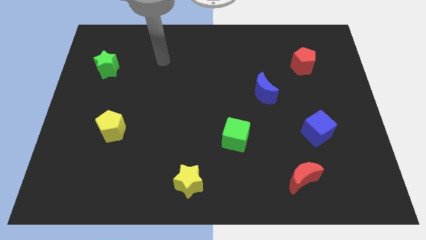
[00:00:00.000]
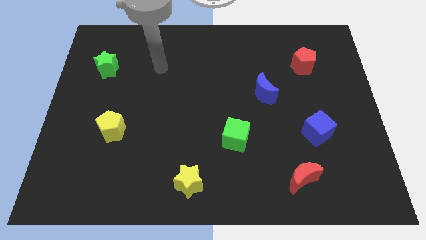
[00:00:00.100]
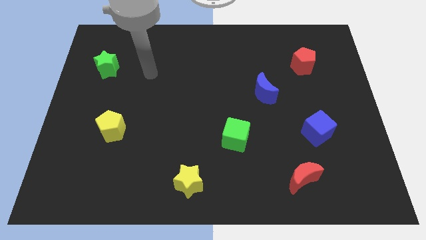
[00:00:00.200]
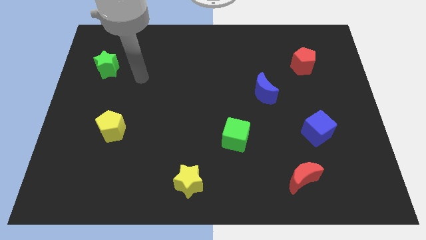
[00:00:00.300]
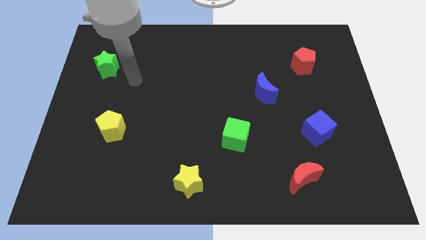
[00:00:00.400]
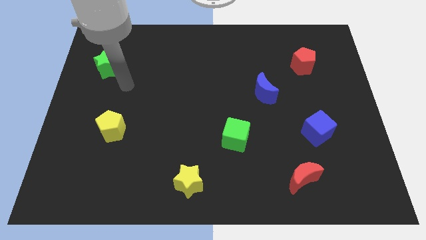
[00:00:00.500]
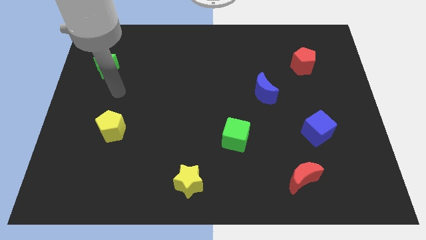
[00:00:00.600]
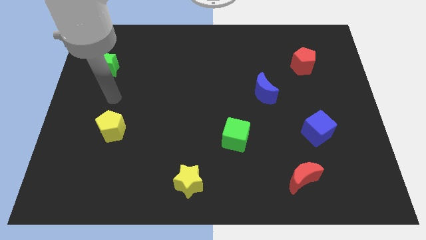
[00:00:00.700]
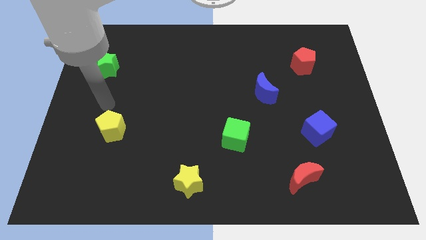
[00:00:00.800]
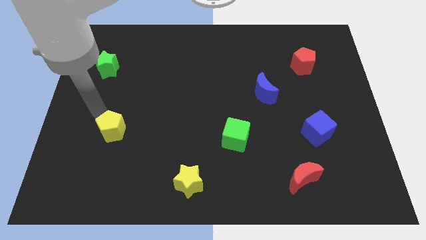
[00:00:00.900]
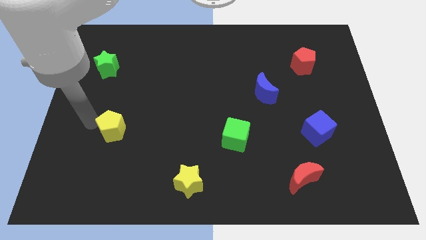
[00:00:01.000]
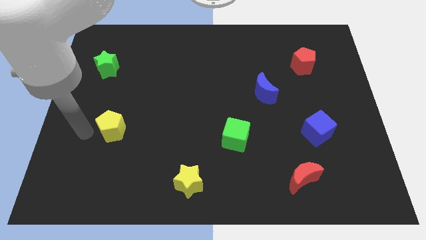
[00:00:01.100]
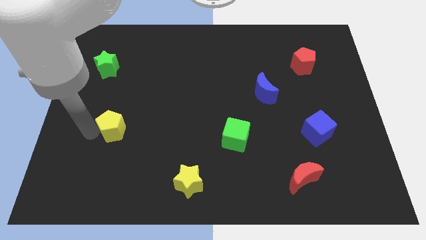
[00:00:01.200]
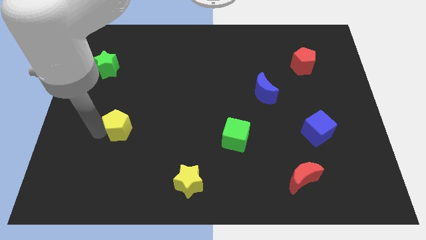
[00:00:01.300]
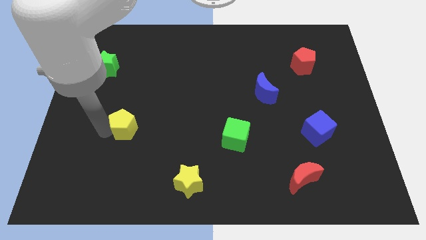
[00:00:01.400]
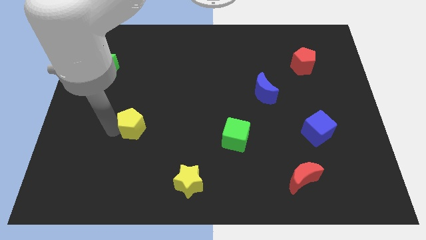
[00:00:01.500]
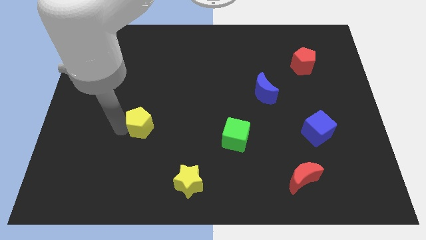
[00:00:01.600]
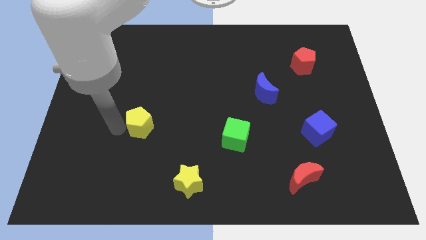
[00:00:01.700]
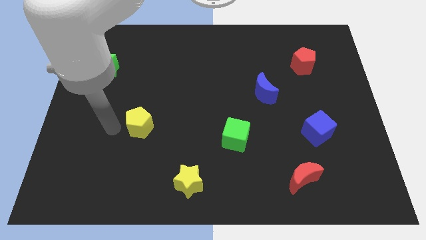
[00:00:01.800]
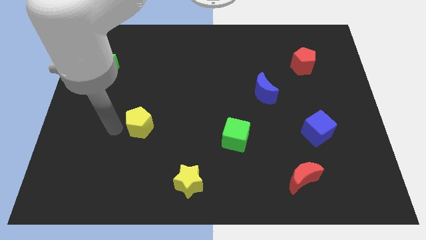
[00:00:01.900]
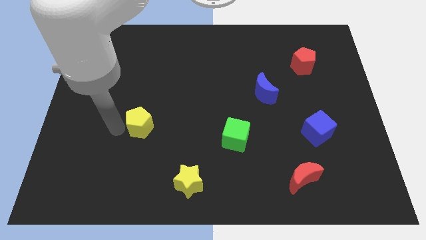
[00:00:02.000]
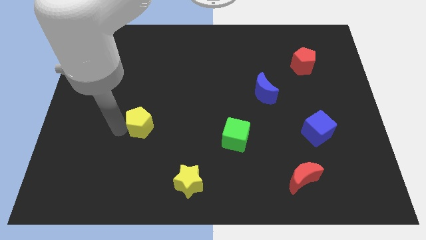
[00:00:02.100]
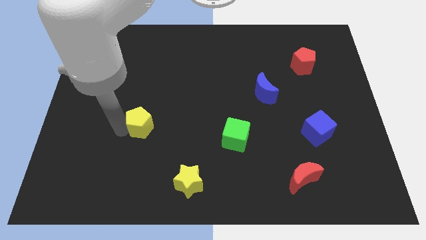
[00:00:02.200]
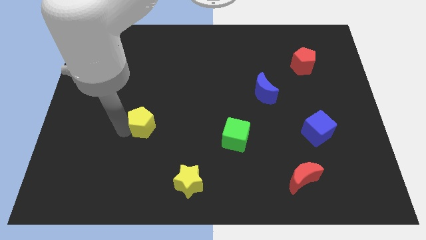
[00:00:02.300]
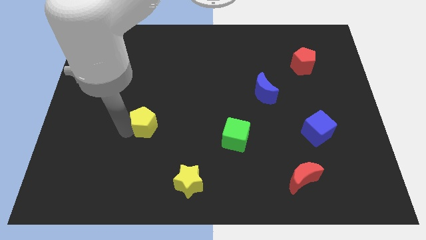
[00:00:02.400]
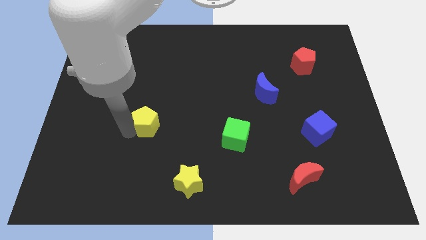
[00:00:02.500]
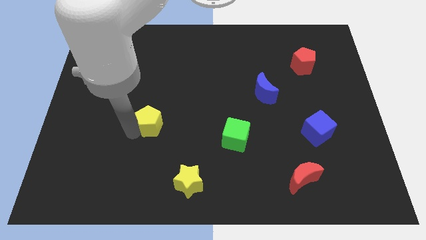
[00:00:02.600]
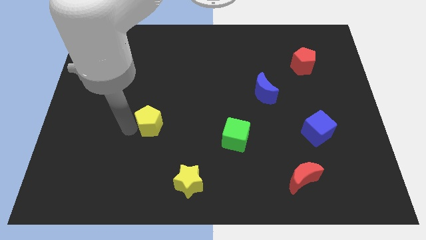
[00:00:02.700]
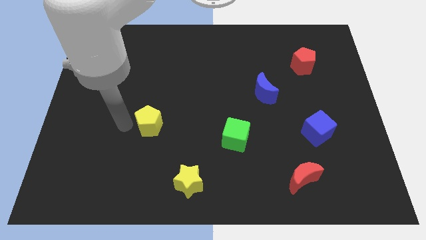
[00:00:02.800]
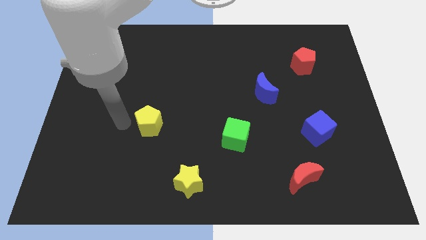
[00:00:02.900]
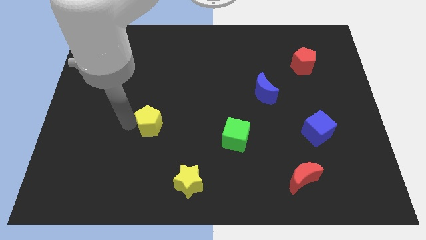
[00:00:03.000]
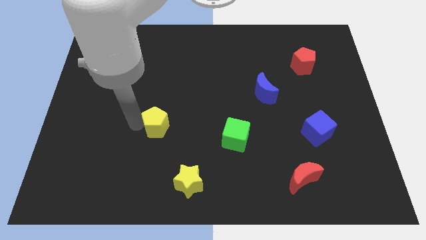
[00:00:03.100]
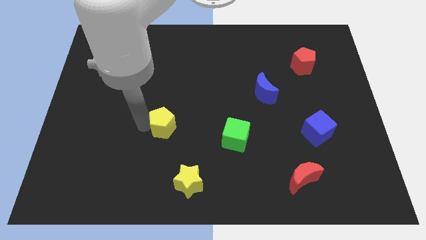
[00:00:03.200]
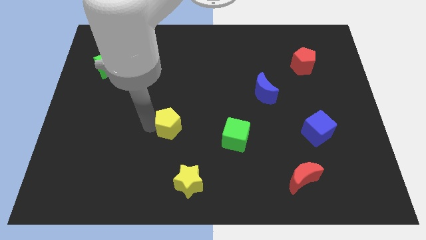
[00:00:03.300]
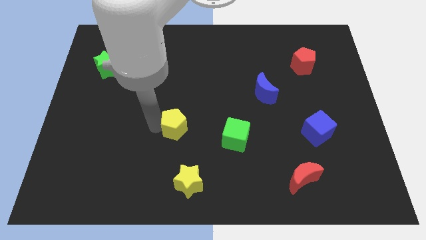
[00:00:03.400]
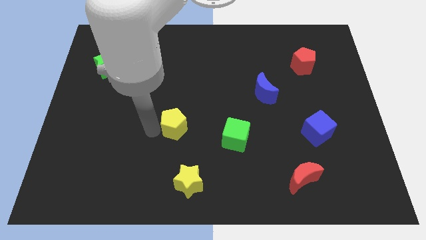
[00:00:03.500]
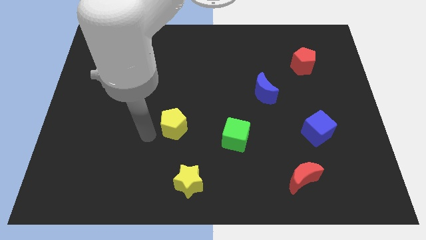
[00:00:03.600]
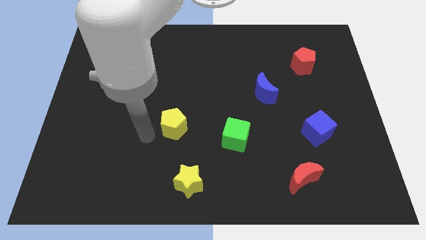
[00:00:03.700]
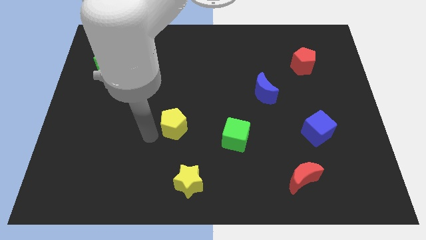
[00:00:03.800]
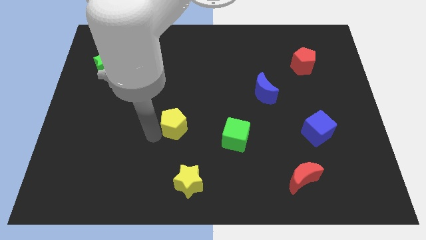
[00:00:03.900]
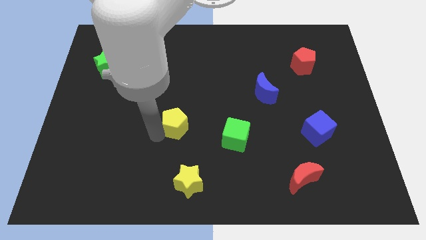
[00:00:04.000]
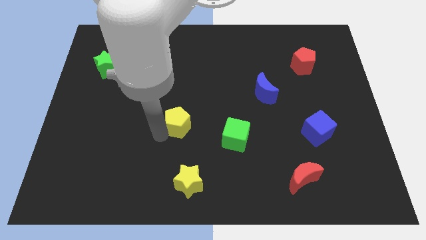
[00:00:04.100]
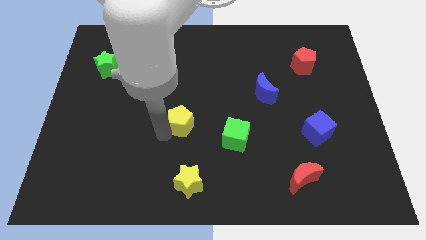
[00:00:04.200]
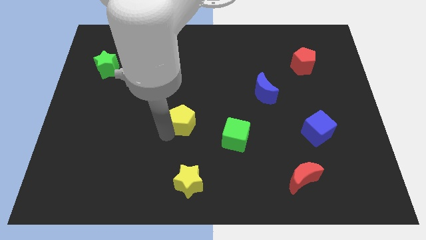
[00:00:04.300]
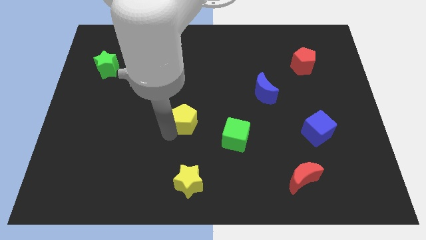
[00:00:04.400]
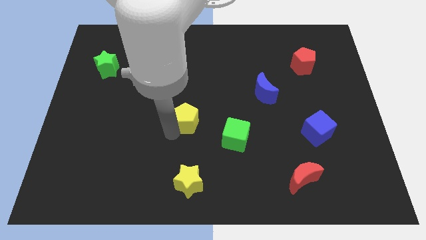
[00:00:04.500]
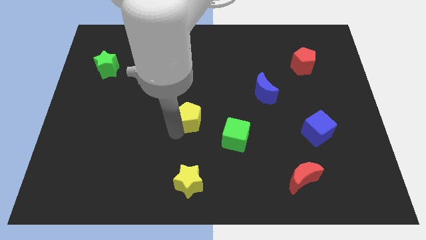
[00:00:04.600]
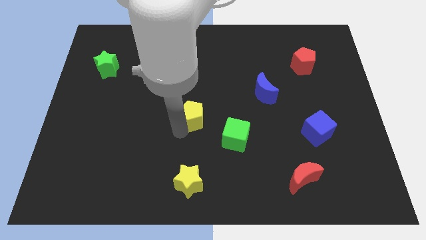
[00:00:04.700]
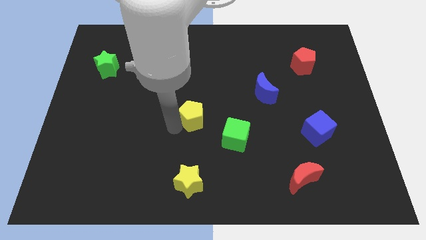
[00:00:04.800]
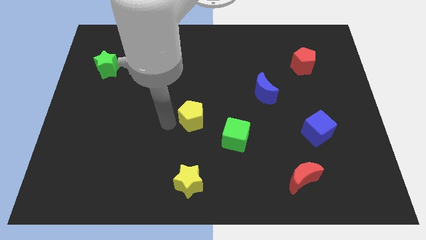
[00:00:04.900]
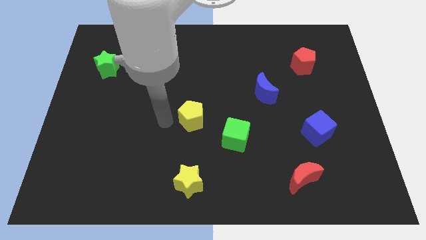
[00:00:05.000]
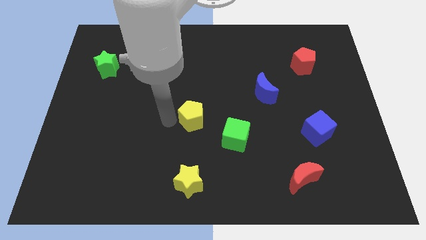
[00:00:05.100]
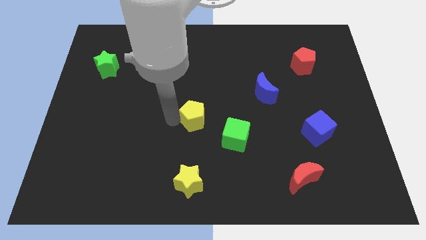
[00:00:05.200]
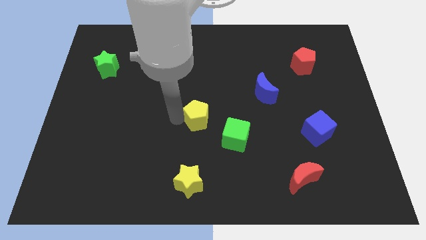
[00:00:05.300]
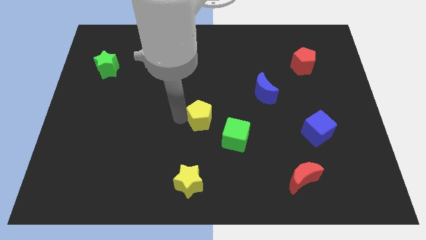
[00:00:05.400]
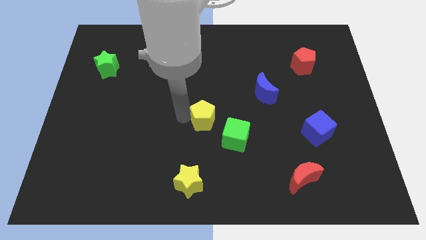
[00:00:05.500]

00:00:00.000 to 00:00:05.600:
push the yellow pentagon to the right

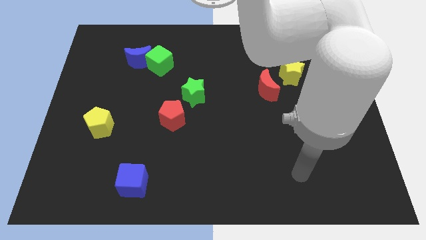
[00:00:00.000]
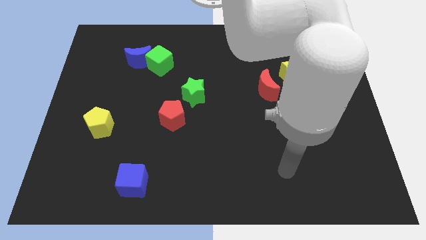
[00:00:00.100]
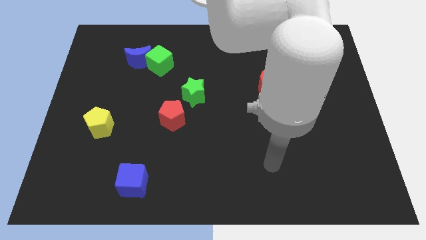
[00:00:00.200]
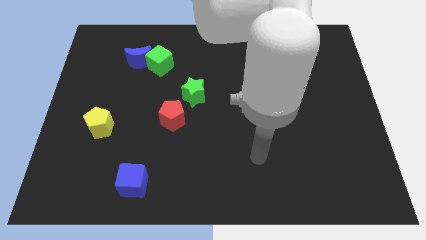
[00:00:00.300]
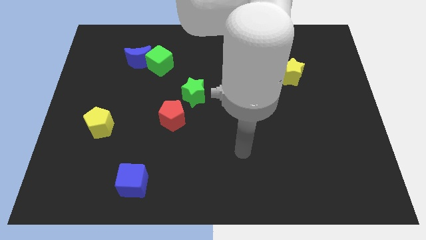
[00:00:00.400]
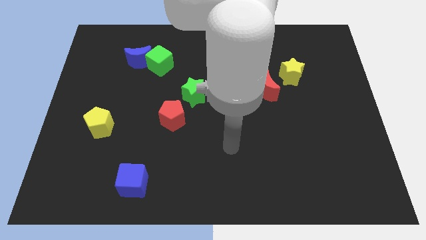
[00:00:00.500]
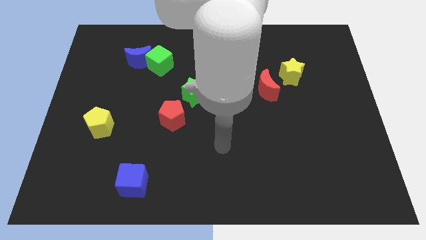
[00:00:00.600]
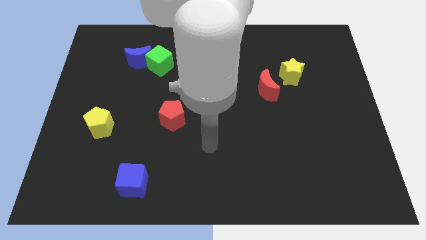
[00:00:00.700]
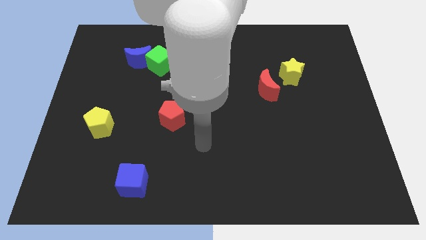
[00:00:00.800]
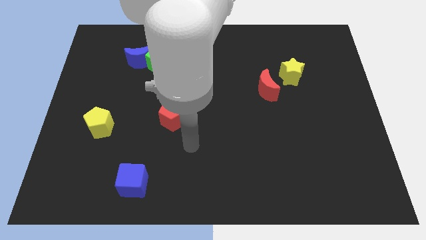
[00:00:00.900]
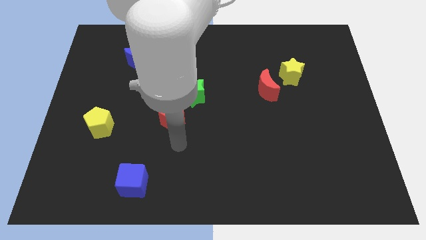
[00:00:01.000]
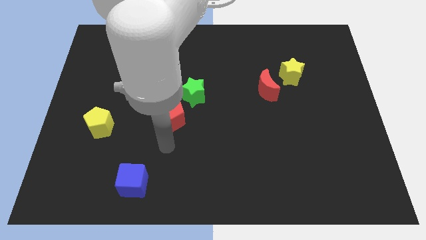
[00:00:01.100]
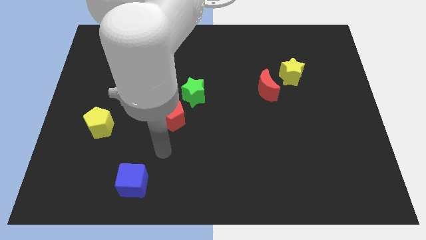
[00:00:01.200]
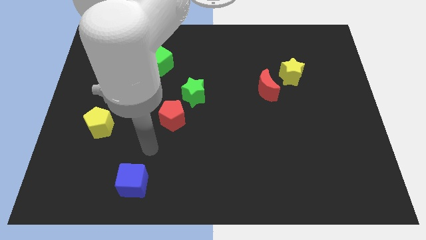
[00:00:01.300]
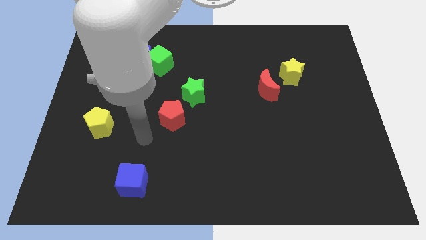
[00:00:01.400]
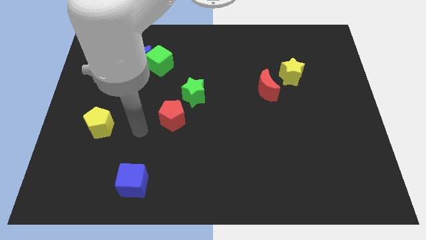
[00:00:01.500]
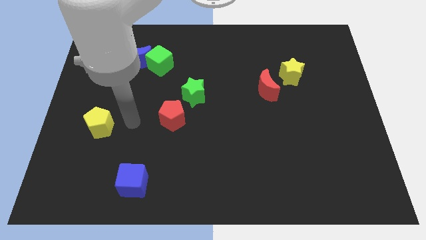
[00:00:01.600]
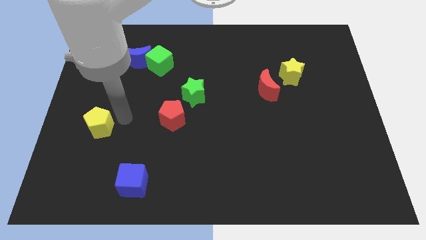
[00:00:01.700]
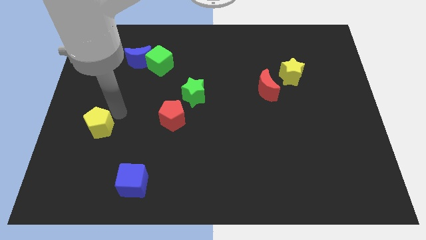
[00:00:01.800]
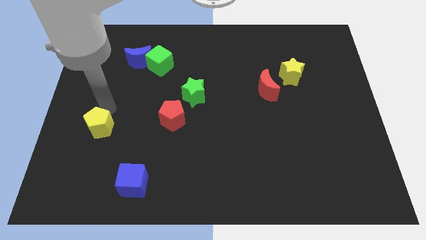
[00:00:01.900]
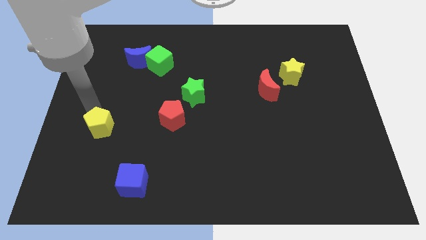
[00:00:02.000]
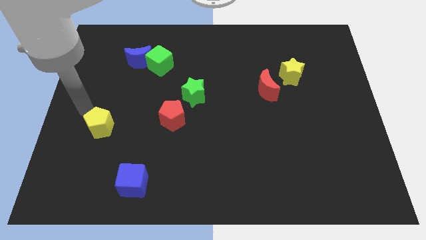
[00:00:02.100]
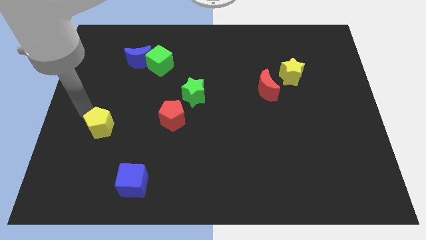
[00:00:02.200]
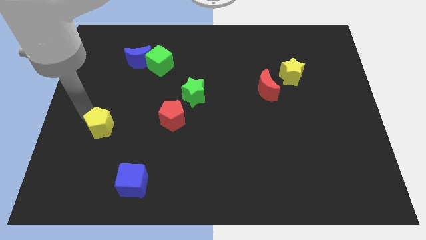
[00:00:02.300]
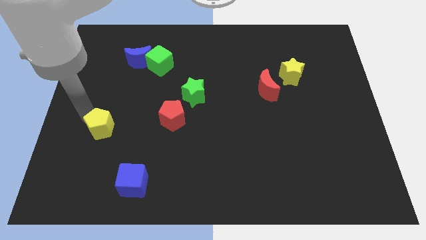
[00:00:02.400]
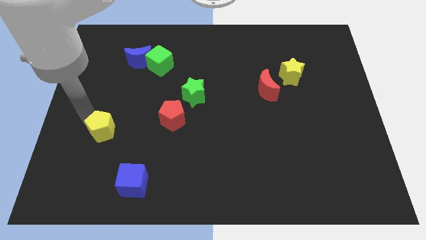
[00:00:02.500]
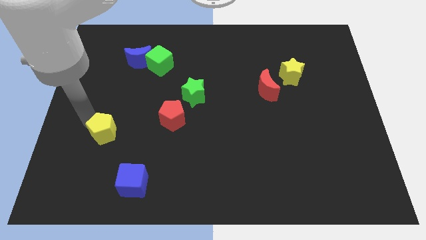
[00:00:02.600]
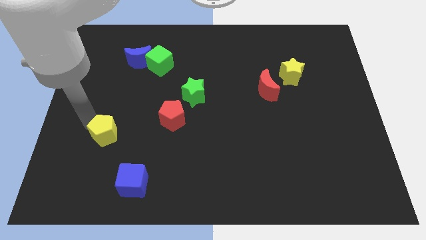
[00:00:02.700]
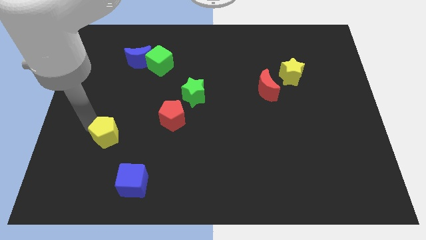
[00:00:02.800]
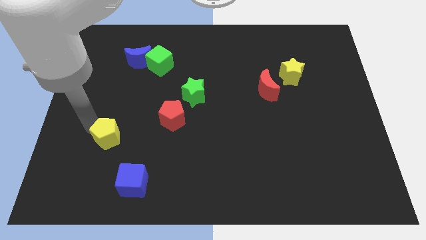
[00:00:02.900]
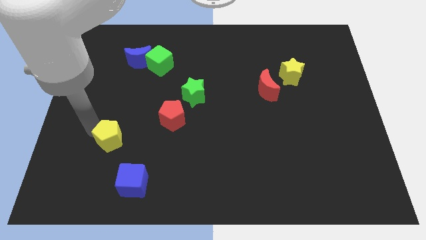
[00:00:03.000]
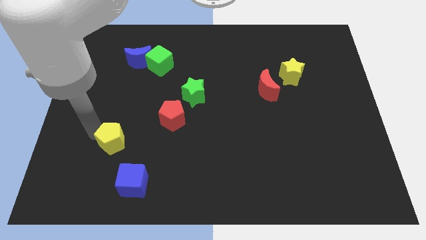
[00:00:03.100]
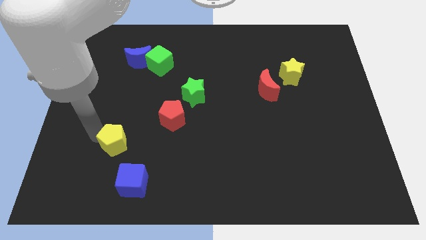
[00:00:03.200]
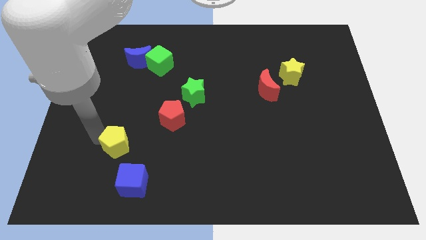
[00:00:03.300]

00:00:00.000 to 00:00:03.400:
slide the yellow pentagon a bit down and then to the right
